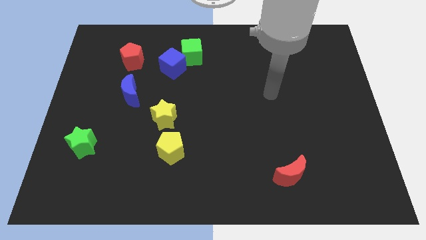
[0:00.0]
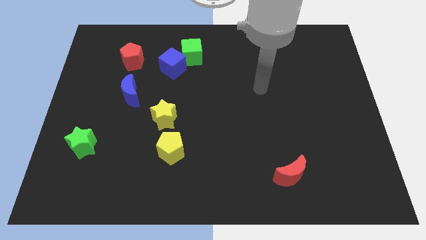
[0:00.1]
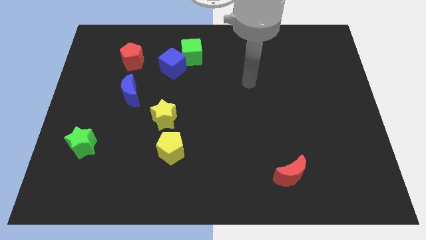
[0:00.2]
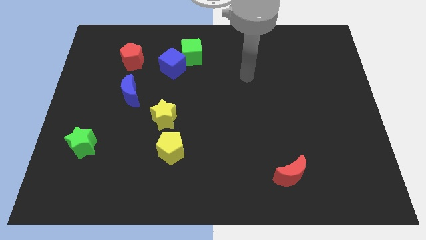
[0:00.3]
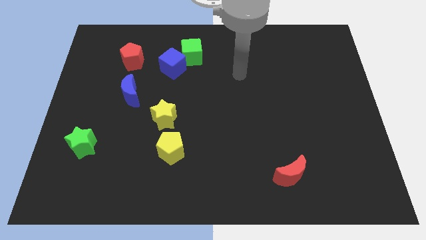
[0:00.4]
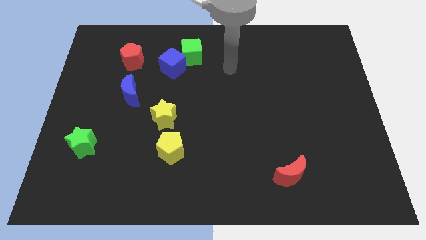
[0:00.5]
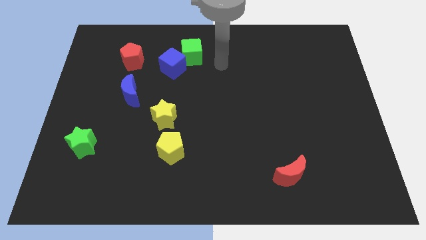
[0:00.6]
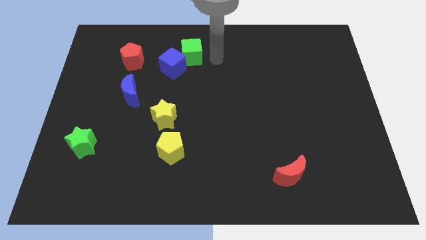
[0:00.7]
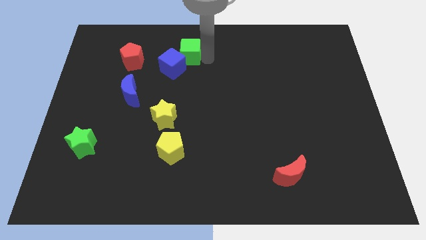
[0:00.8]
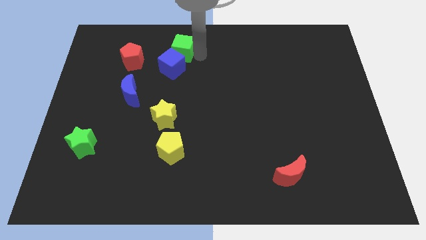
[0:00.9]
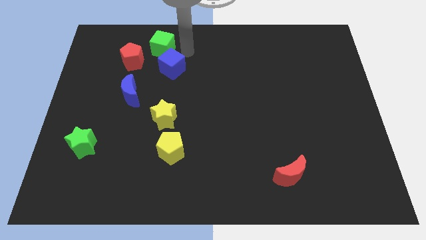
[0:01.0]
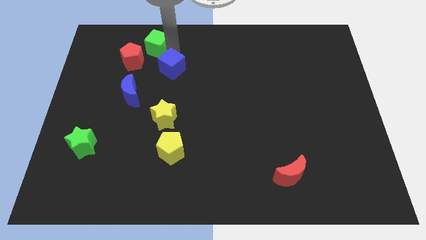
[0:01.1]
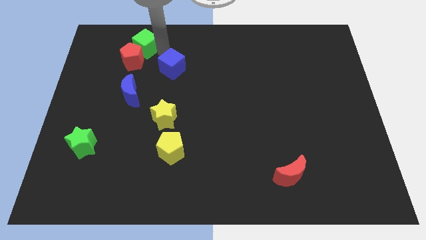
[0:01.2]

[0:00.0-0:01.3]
separate the blue cube from the green cube

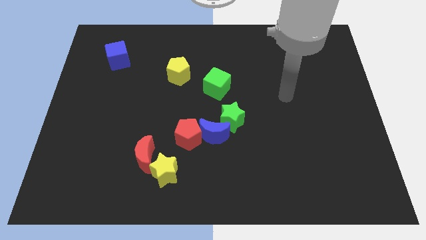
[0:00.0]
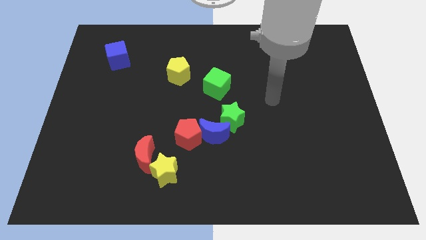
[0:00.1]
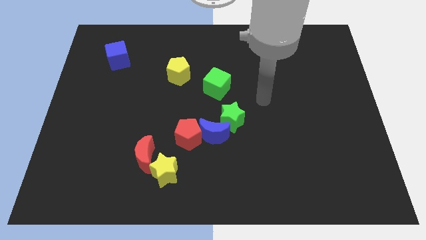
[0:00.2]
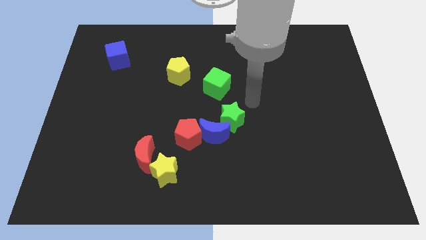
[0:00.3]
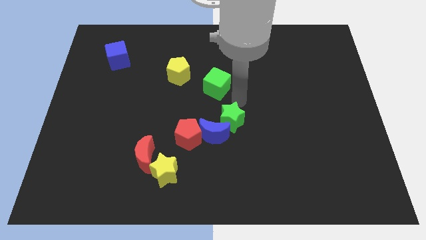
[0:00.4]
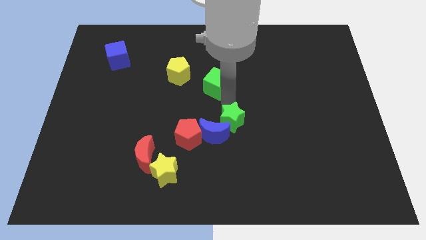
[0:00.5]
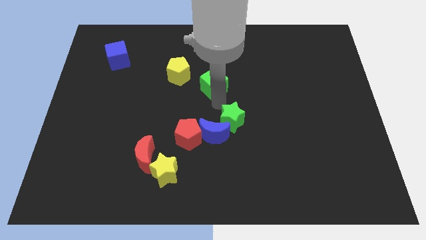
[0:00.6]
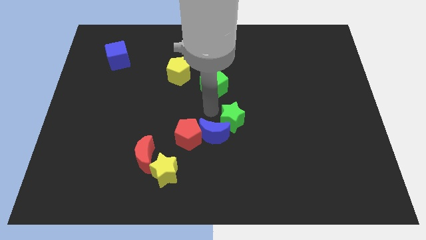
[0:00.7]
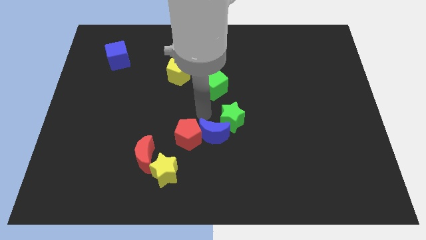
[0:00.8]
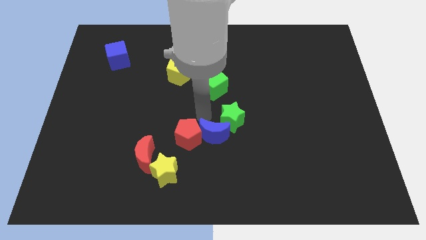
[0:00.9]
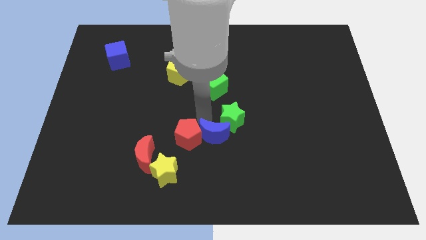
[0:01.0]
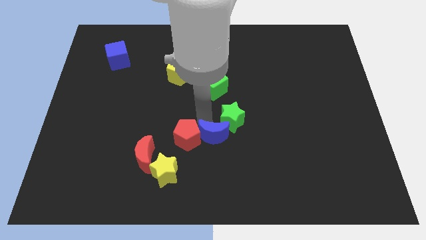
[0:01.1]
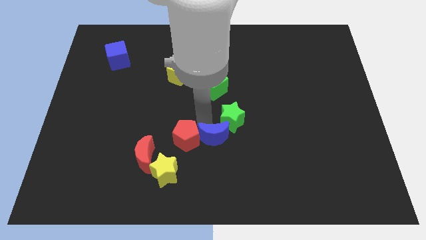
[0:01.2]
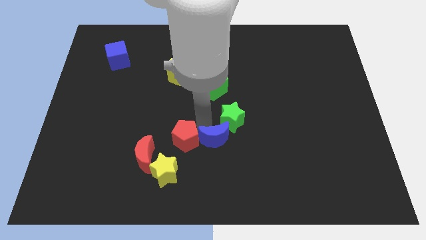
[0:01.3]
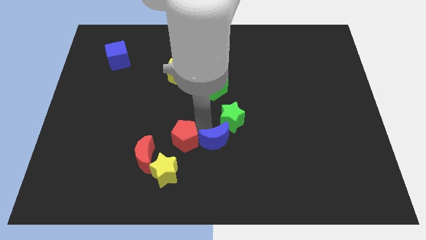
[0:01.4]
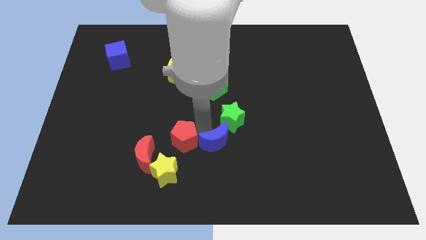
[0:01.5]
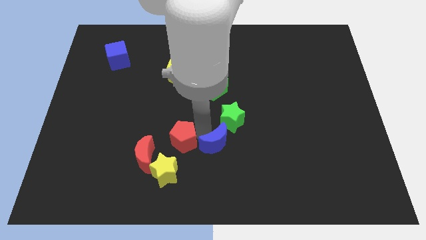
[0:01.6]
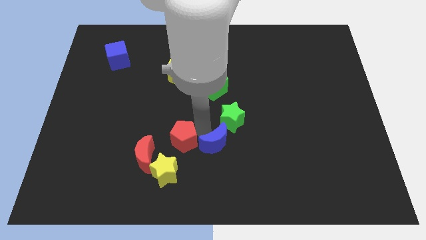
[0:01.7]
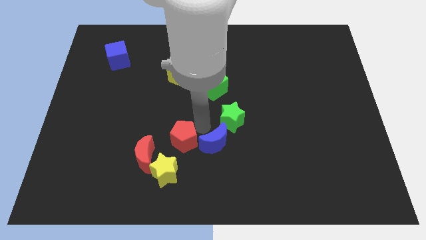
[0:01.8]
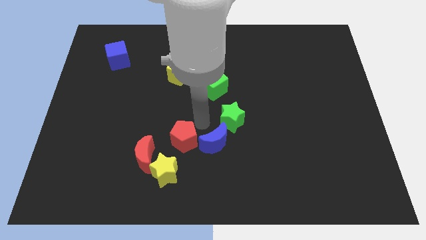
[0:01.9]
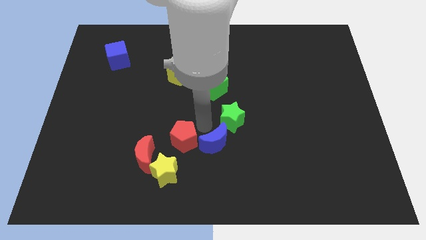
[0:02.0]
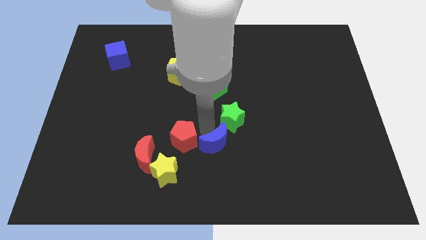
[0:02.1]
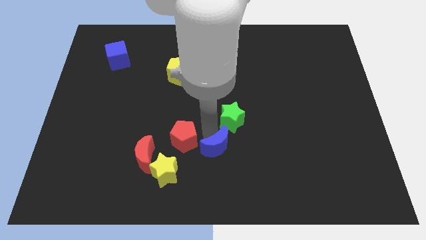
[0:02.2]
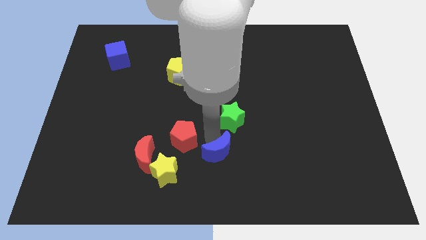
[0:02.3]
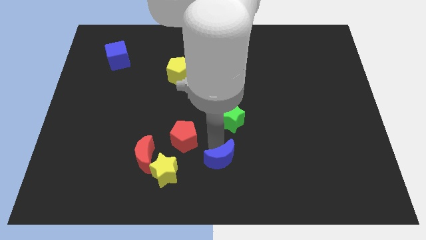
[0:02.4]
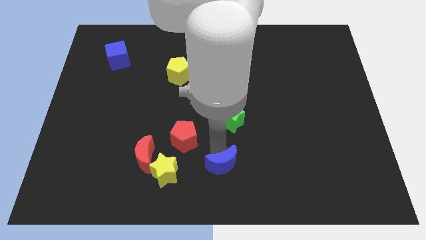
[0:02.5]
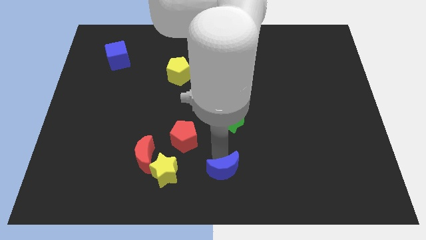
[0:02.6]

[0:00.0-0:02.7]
move the blue moon away from the red pentagon and green star

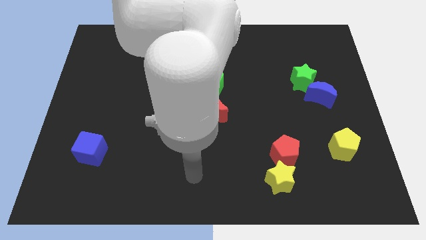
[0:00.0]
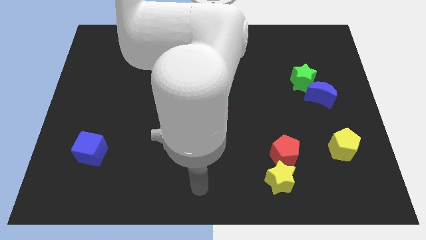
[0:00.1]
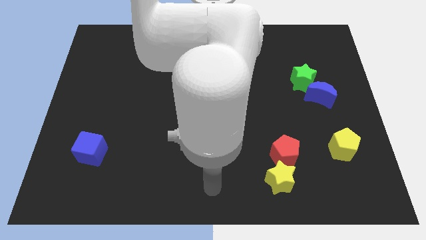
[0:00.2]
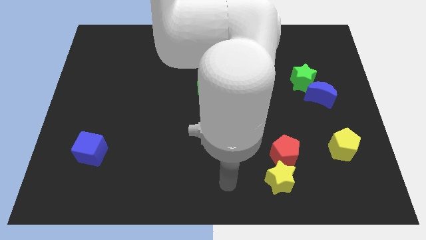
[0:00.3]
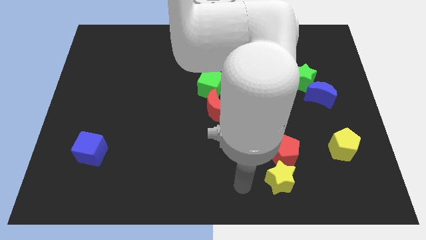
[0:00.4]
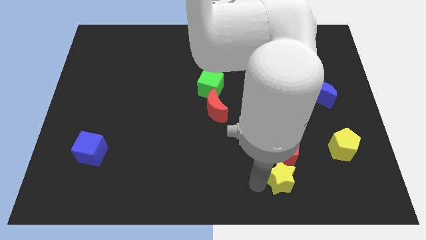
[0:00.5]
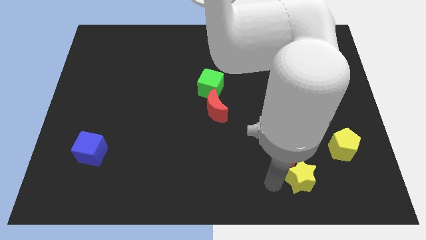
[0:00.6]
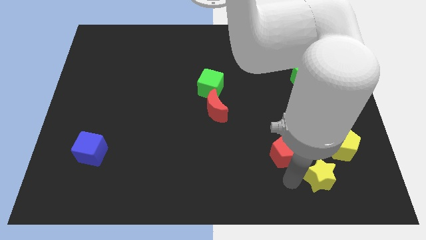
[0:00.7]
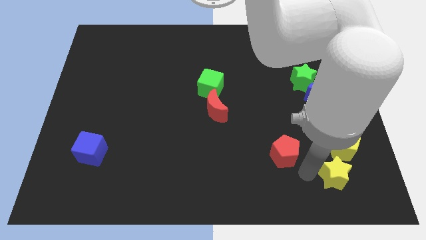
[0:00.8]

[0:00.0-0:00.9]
separate the red pentagon from the yellow star

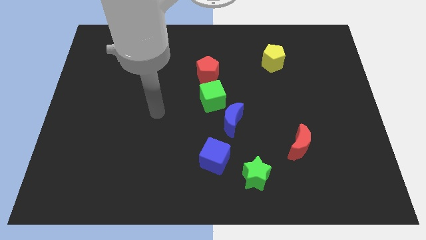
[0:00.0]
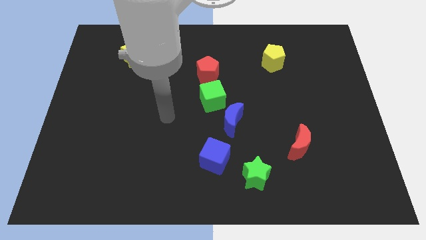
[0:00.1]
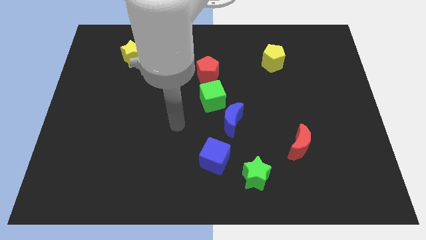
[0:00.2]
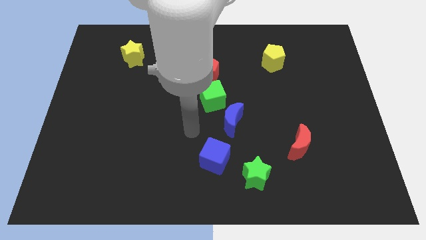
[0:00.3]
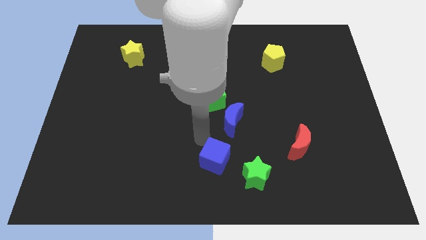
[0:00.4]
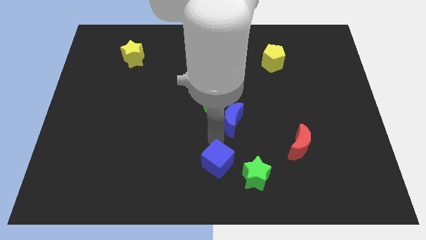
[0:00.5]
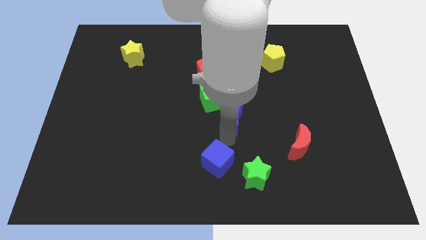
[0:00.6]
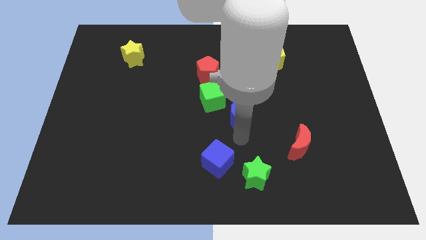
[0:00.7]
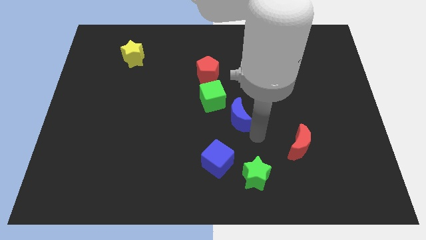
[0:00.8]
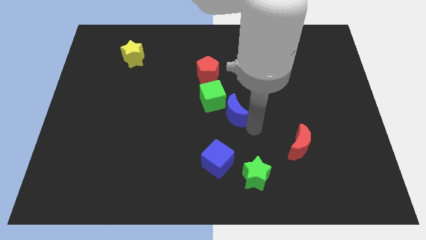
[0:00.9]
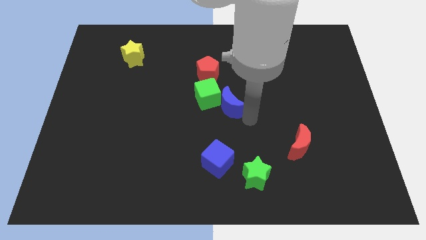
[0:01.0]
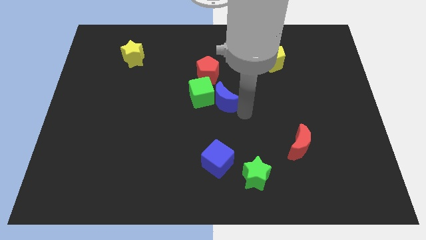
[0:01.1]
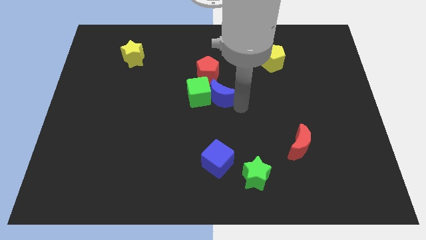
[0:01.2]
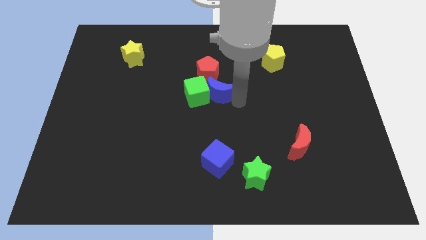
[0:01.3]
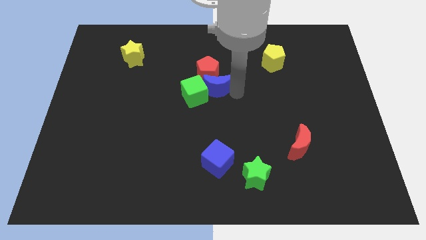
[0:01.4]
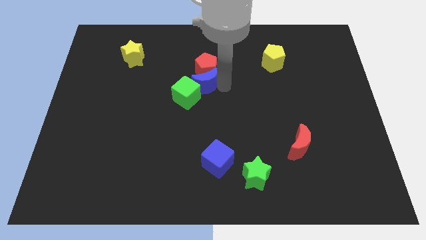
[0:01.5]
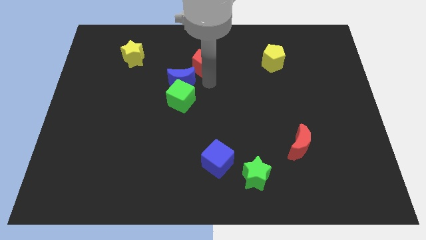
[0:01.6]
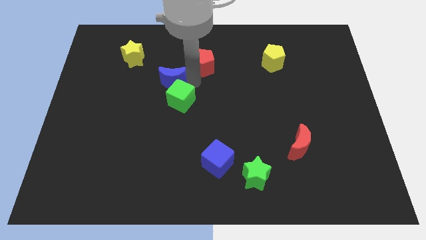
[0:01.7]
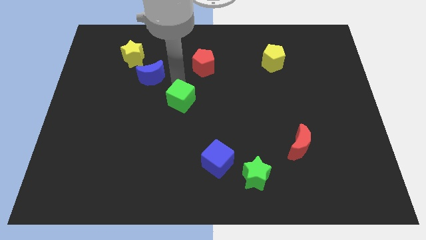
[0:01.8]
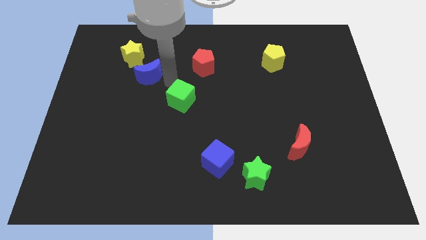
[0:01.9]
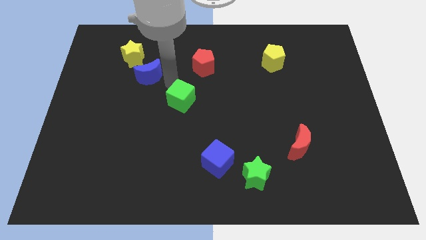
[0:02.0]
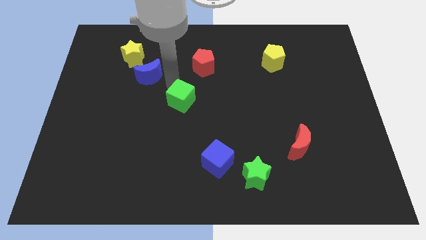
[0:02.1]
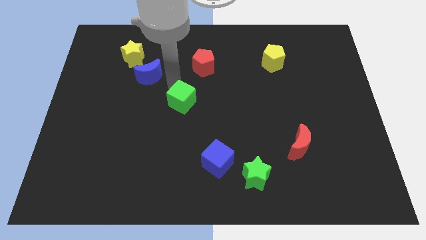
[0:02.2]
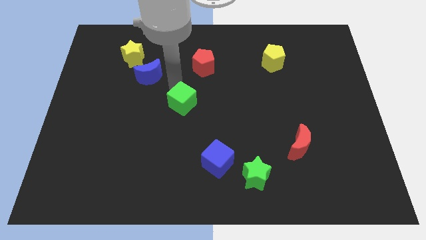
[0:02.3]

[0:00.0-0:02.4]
separate the green cube from the blue moon and red pentagon

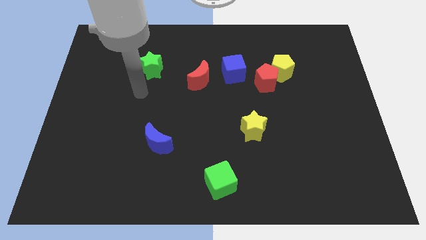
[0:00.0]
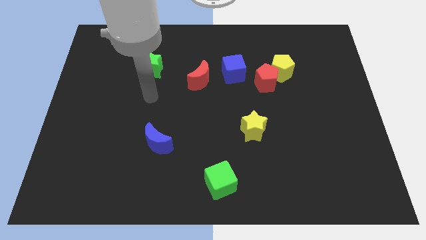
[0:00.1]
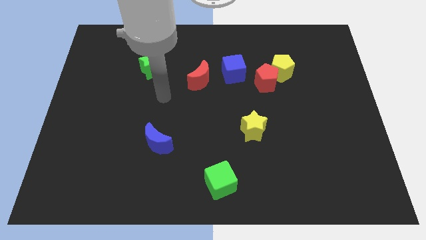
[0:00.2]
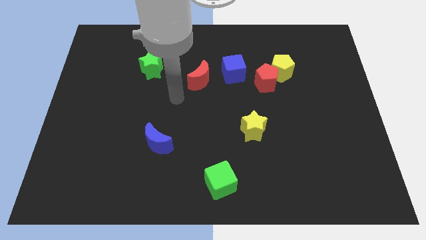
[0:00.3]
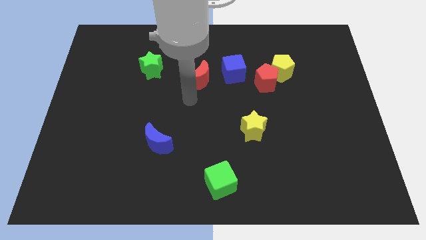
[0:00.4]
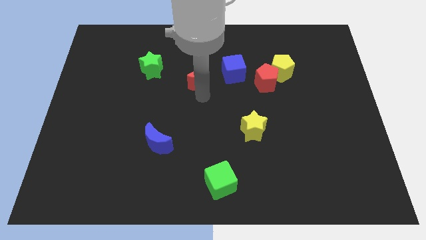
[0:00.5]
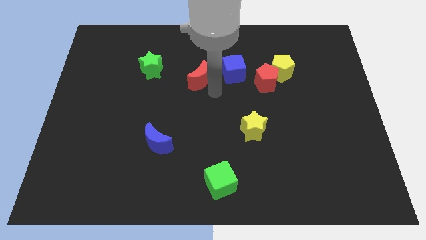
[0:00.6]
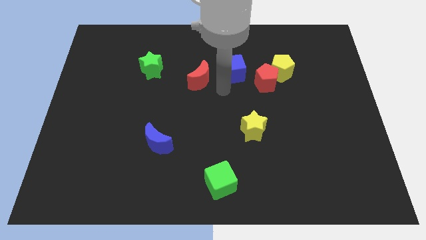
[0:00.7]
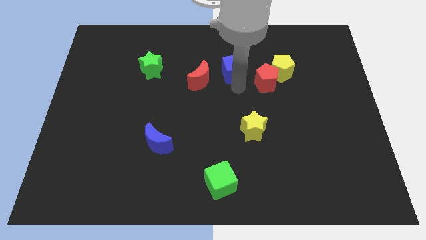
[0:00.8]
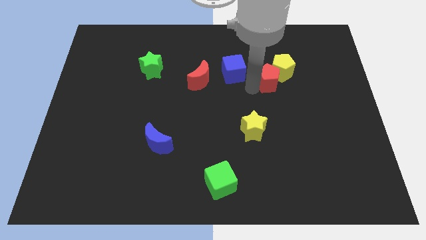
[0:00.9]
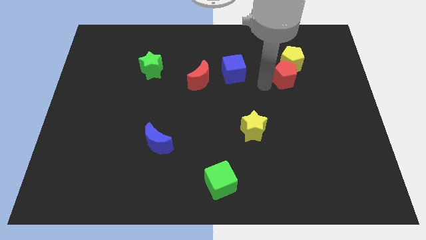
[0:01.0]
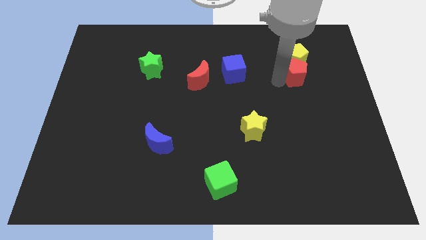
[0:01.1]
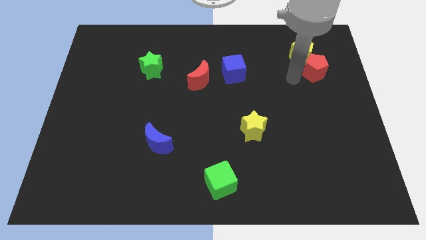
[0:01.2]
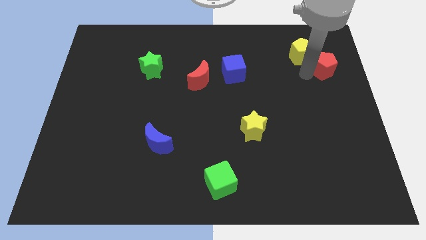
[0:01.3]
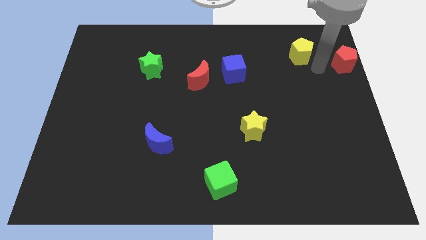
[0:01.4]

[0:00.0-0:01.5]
move the yellow pentagon away from the red pentagon

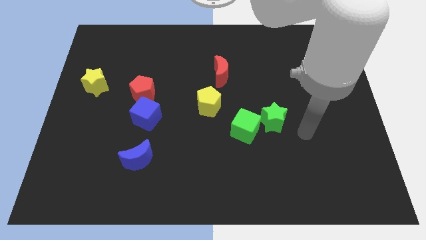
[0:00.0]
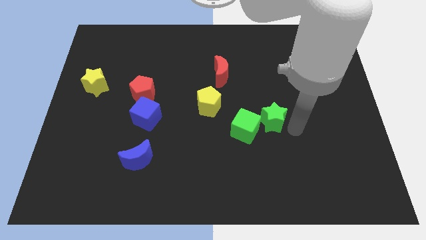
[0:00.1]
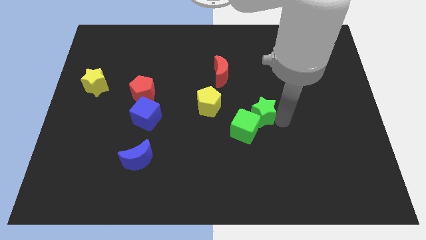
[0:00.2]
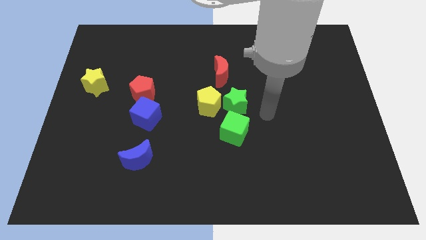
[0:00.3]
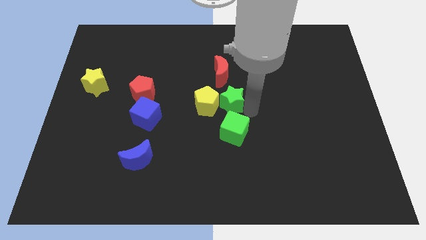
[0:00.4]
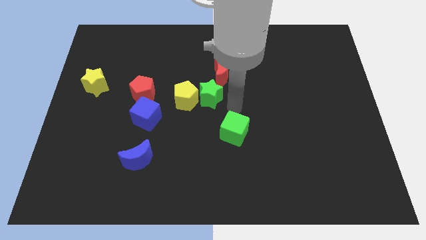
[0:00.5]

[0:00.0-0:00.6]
move the green cube away from the green star
